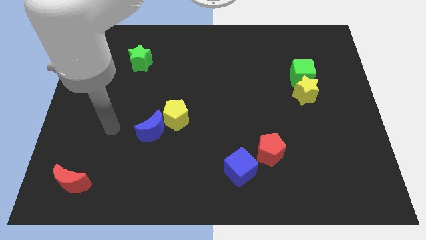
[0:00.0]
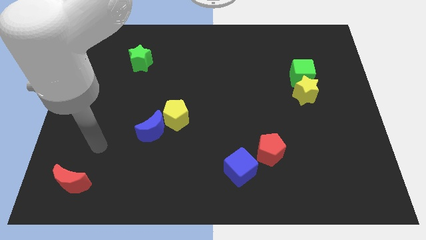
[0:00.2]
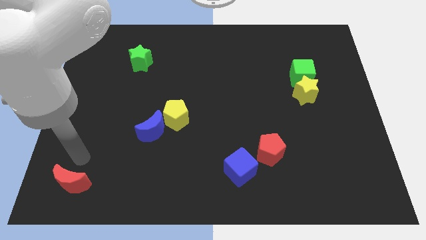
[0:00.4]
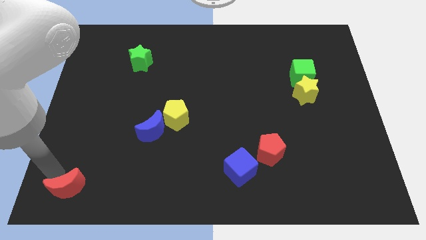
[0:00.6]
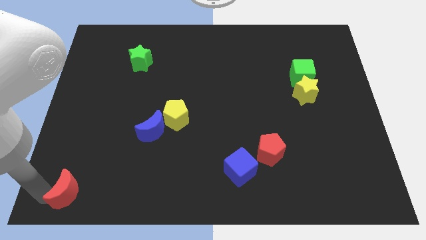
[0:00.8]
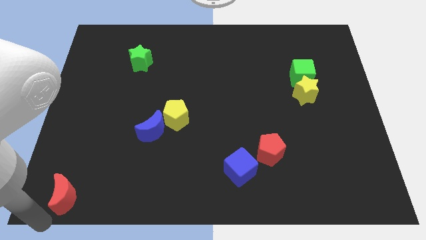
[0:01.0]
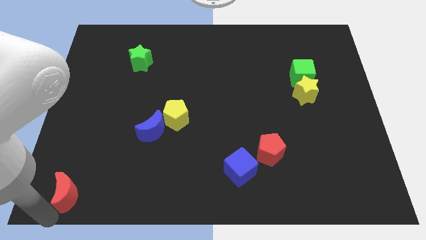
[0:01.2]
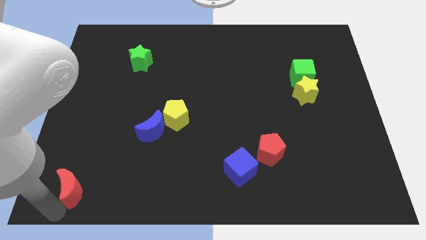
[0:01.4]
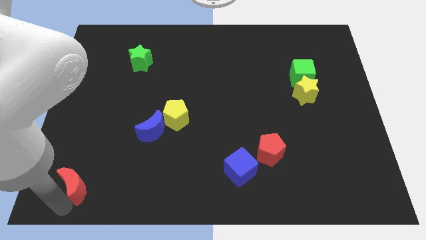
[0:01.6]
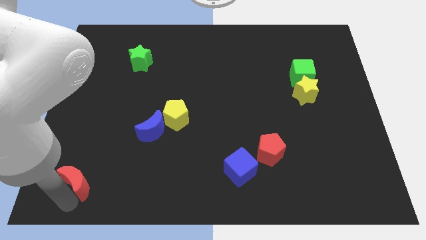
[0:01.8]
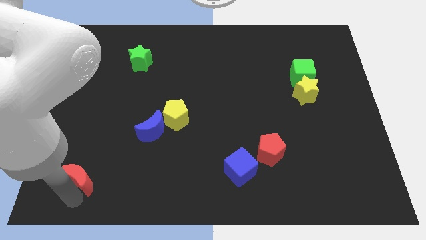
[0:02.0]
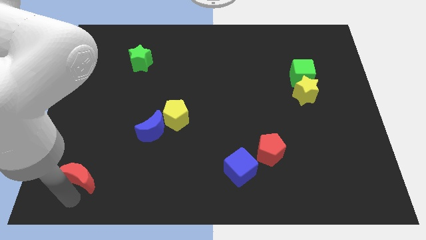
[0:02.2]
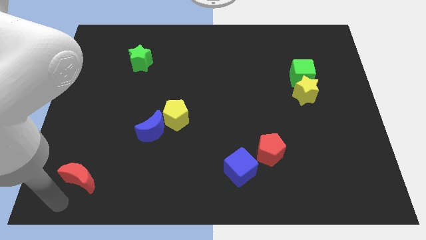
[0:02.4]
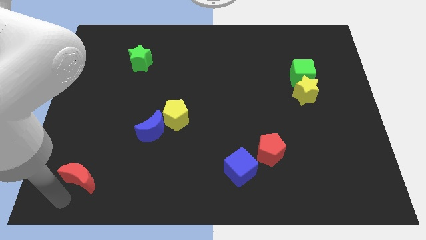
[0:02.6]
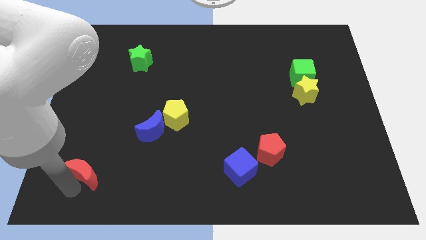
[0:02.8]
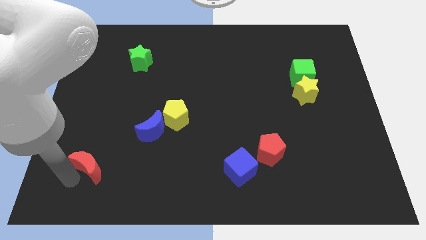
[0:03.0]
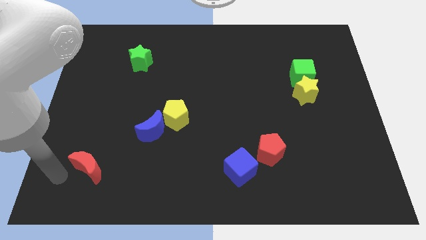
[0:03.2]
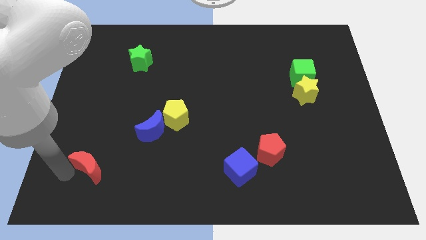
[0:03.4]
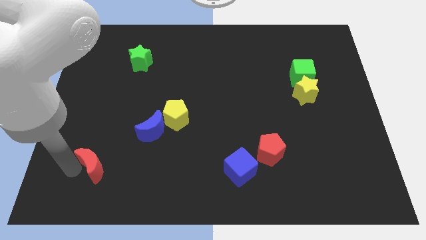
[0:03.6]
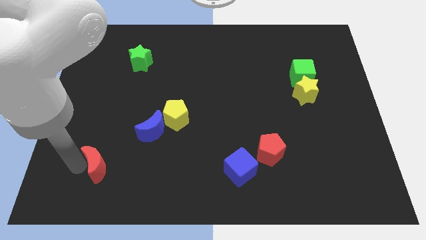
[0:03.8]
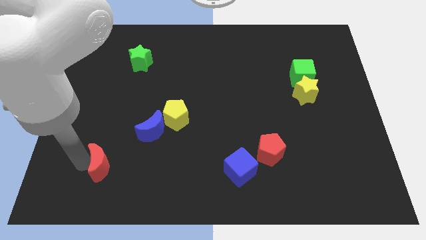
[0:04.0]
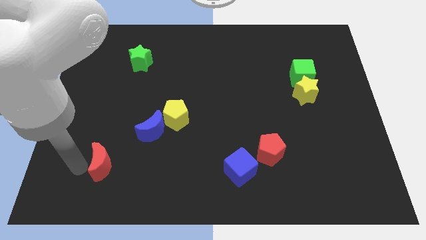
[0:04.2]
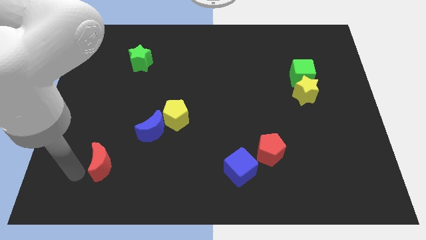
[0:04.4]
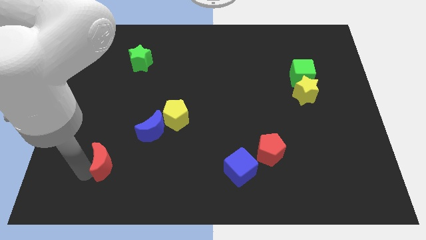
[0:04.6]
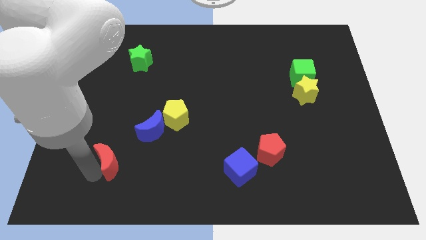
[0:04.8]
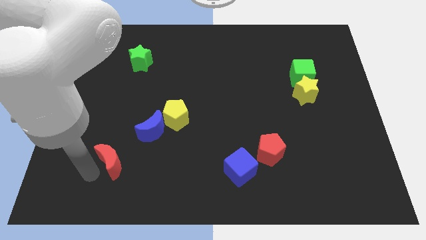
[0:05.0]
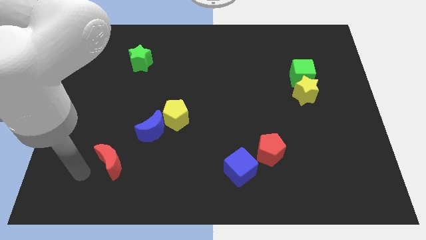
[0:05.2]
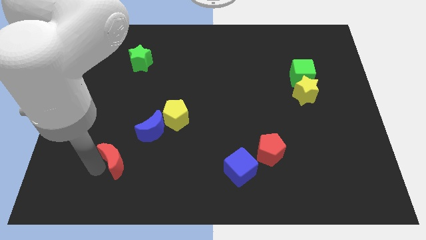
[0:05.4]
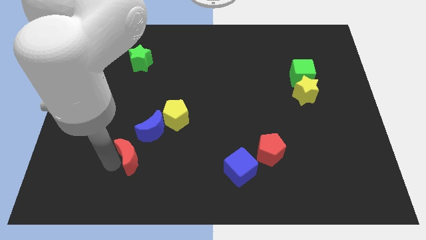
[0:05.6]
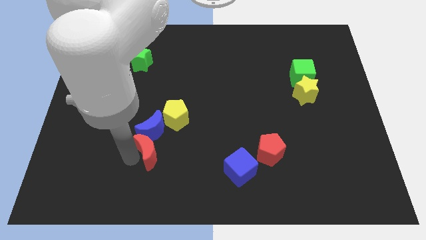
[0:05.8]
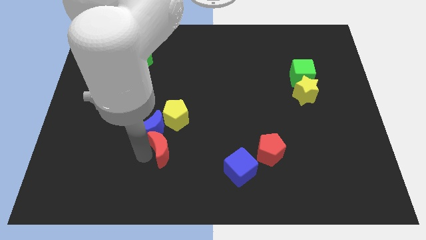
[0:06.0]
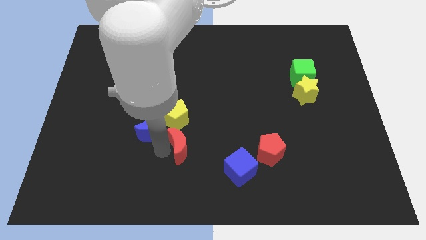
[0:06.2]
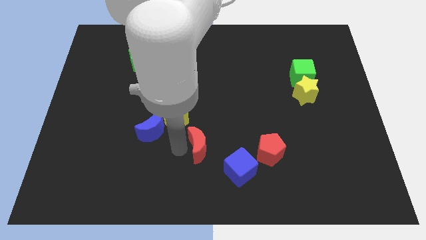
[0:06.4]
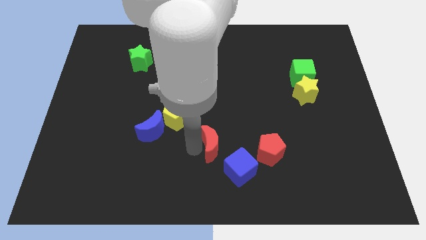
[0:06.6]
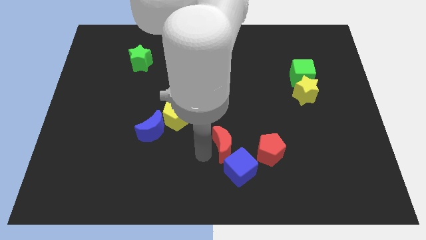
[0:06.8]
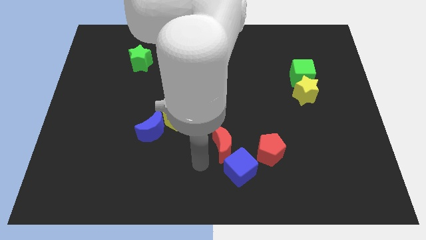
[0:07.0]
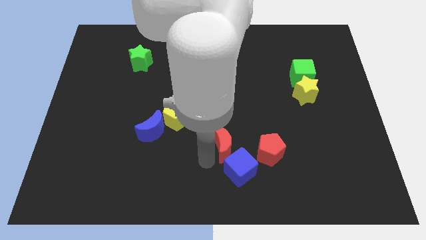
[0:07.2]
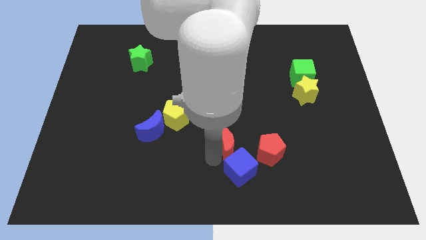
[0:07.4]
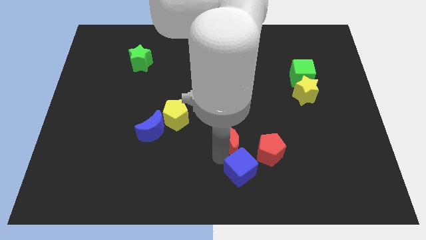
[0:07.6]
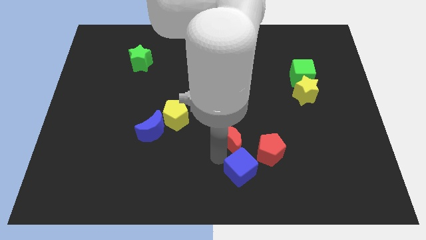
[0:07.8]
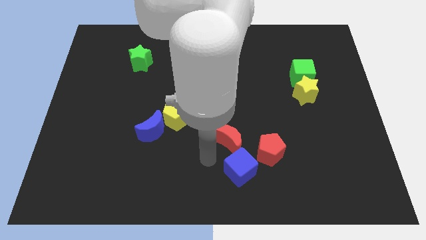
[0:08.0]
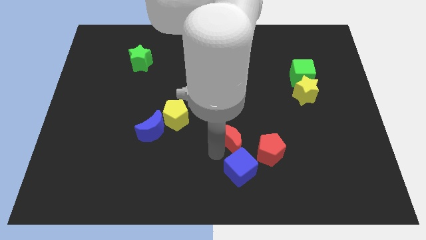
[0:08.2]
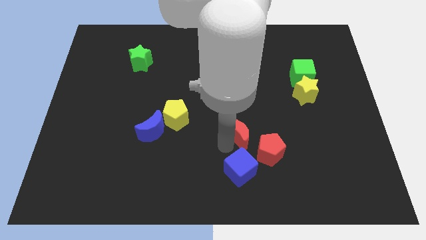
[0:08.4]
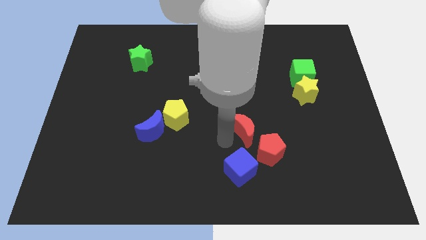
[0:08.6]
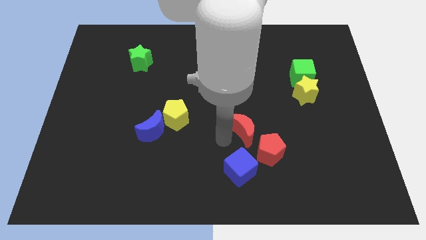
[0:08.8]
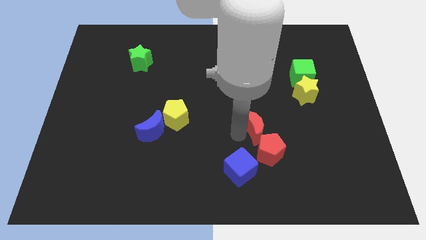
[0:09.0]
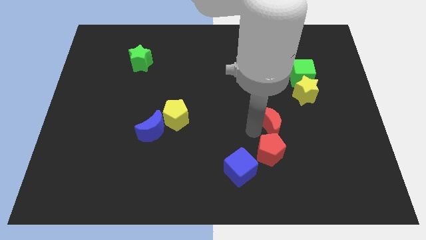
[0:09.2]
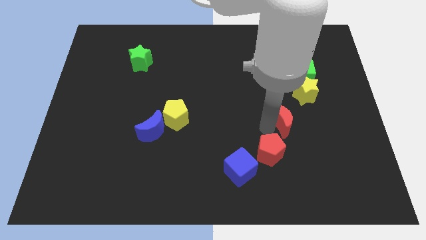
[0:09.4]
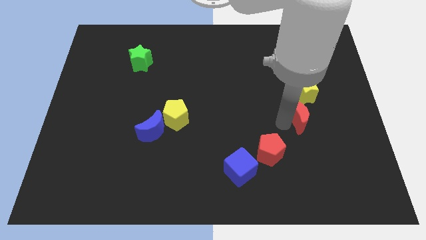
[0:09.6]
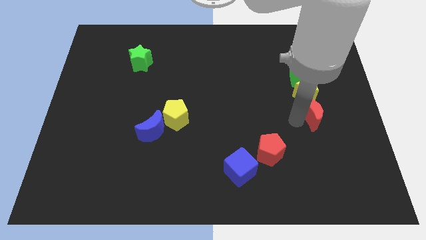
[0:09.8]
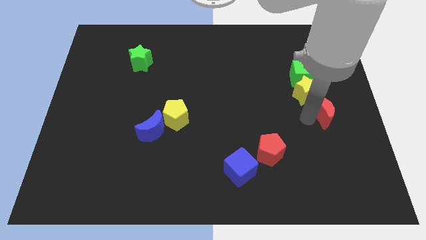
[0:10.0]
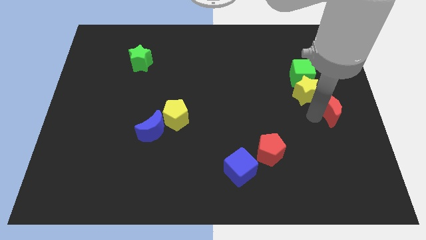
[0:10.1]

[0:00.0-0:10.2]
push the red moon to the center right

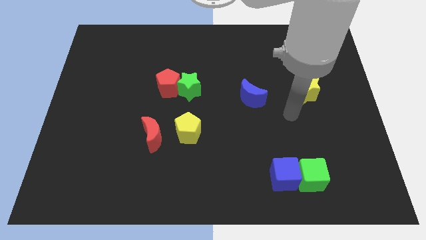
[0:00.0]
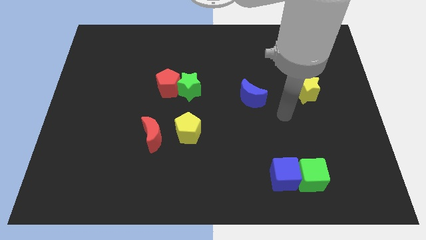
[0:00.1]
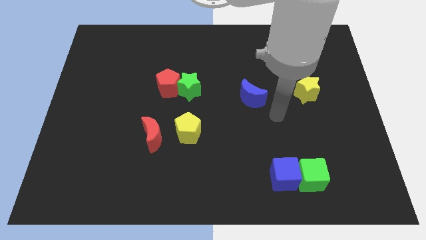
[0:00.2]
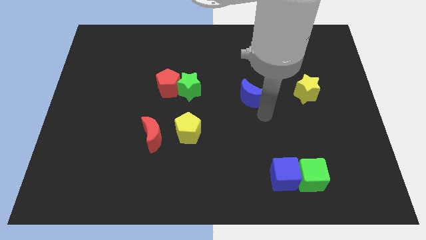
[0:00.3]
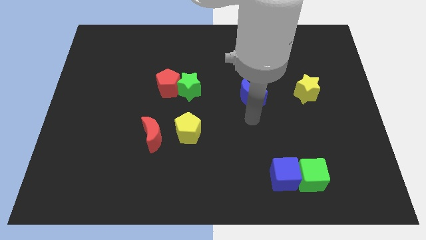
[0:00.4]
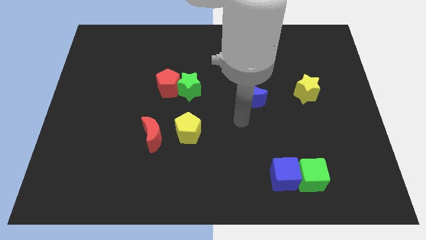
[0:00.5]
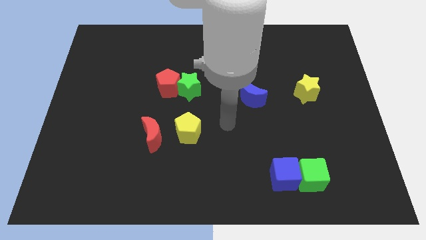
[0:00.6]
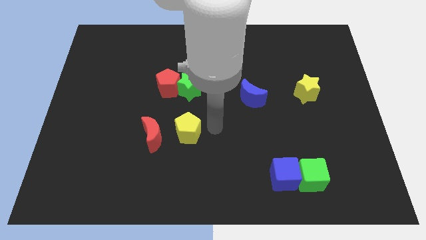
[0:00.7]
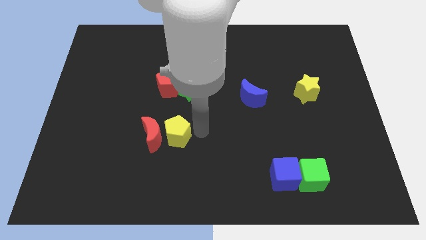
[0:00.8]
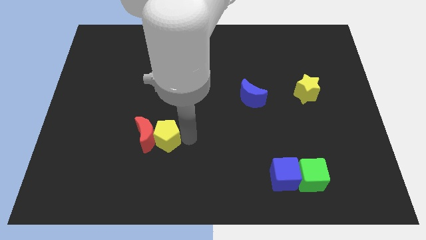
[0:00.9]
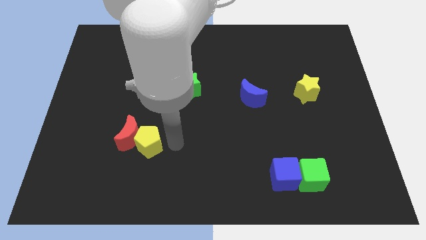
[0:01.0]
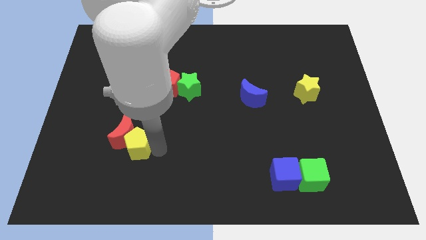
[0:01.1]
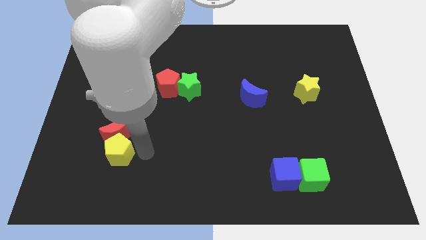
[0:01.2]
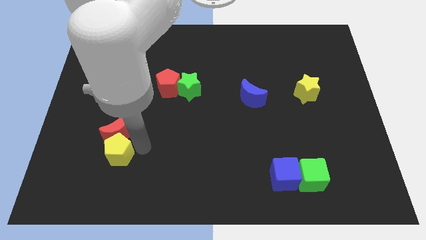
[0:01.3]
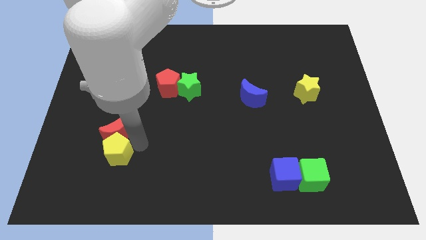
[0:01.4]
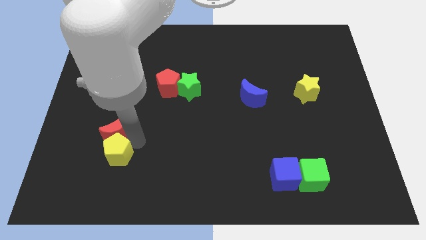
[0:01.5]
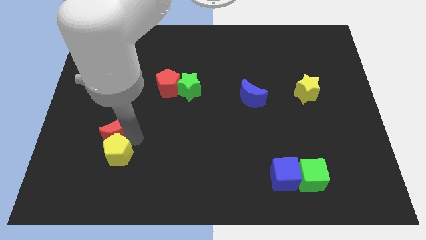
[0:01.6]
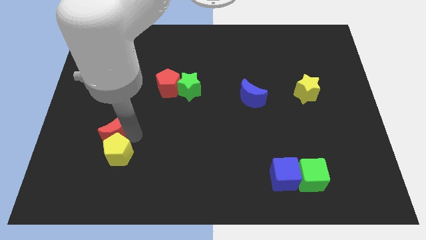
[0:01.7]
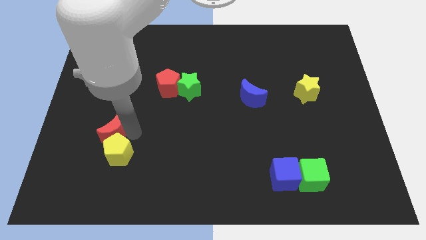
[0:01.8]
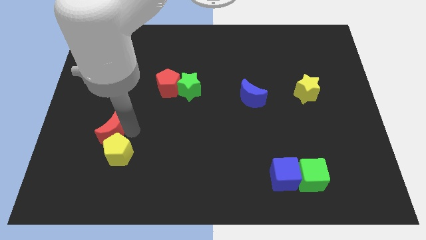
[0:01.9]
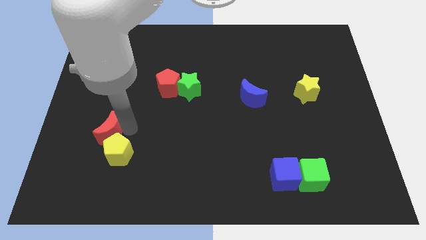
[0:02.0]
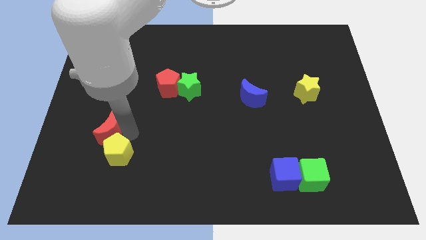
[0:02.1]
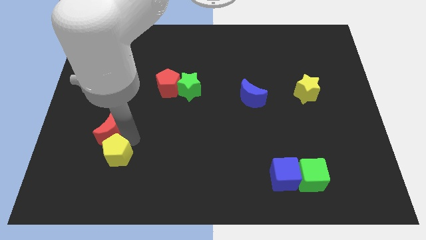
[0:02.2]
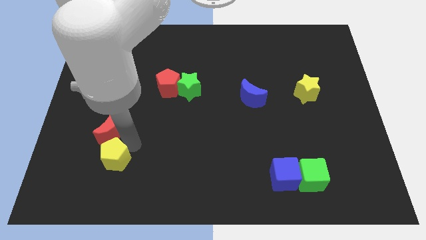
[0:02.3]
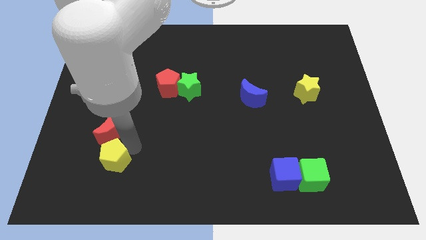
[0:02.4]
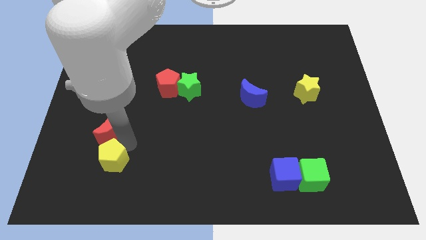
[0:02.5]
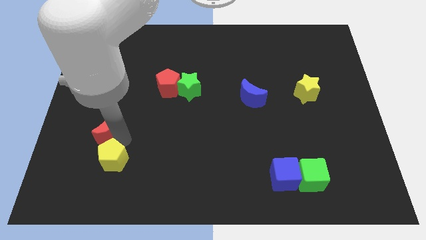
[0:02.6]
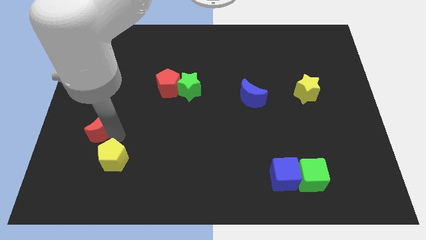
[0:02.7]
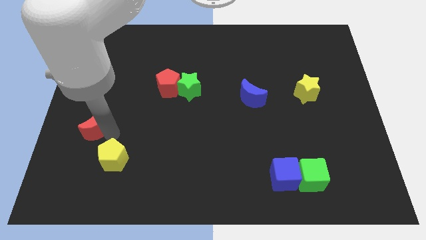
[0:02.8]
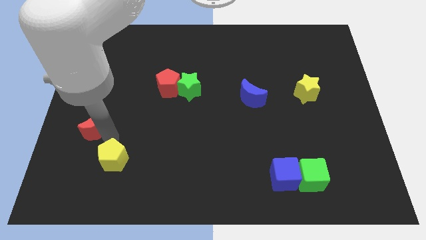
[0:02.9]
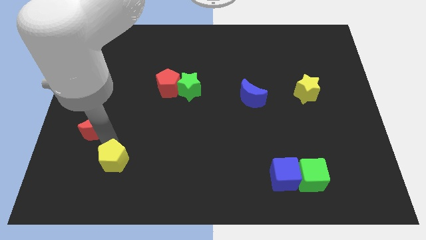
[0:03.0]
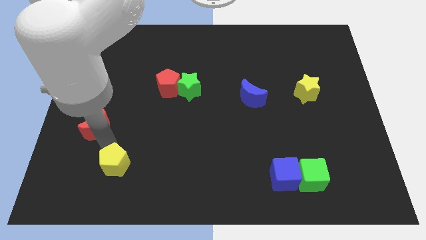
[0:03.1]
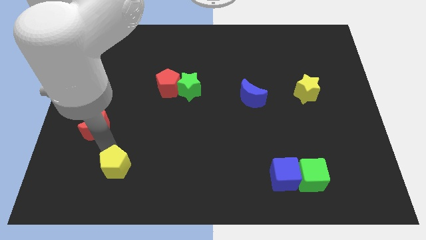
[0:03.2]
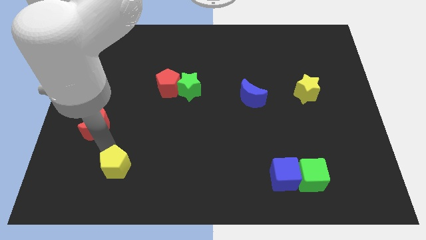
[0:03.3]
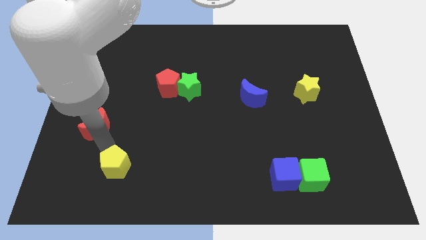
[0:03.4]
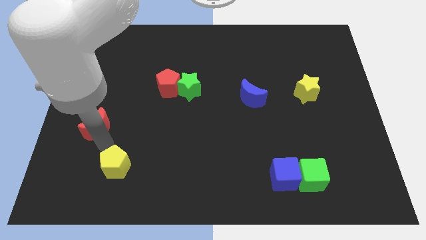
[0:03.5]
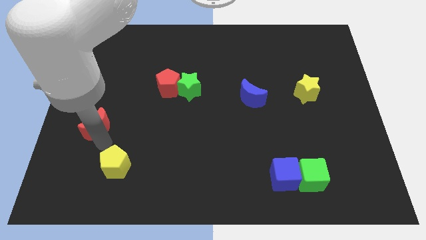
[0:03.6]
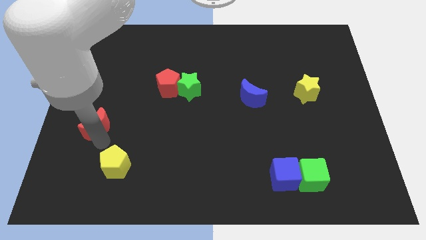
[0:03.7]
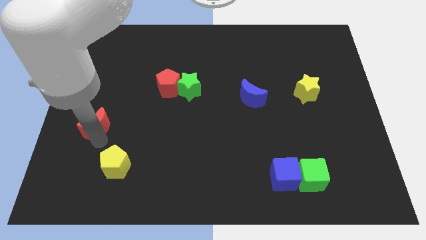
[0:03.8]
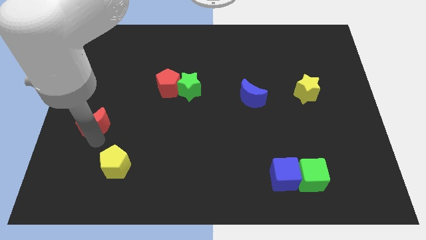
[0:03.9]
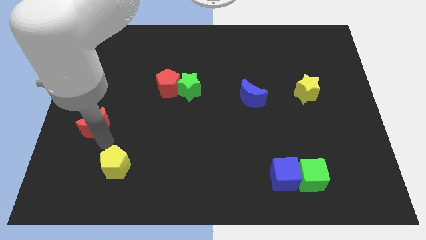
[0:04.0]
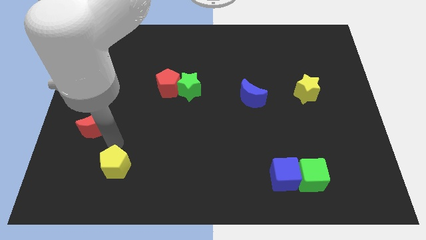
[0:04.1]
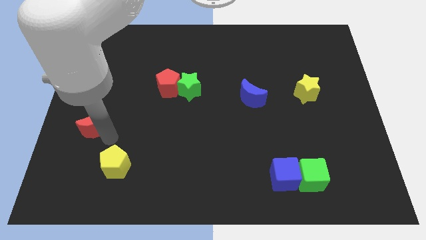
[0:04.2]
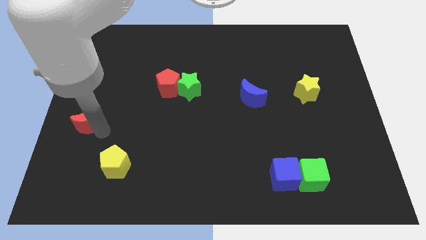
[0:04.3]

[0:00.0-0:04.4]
slide the red moon to the center left
